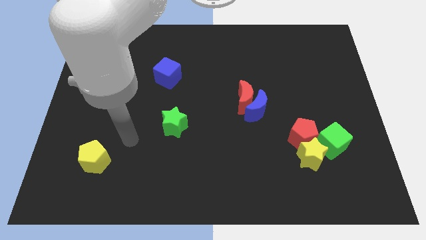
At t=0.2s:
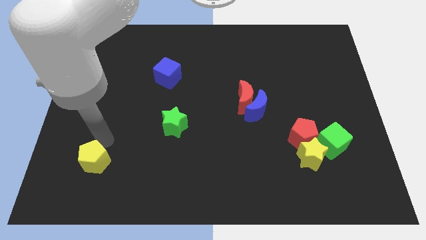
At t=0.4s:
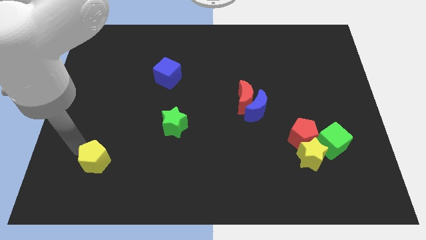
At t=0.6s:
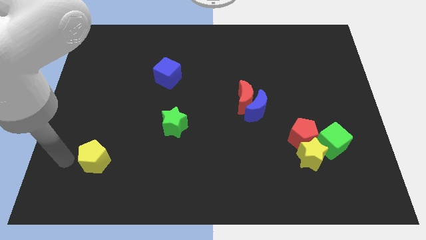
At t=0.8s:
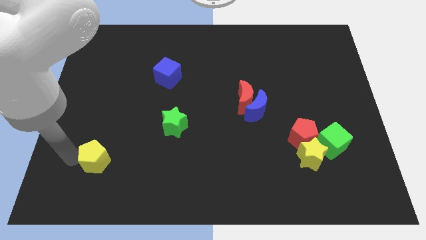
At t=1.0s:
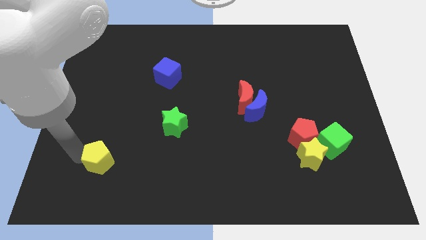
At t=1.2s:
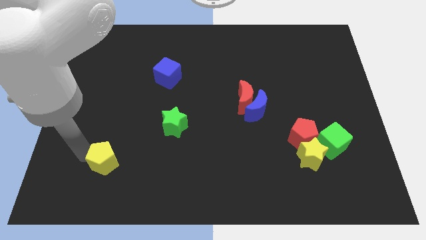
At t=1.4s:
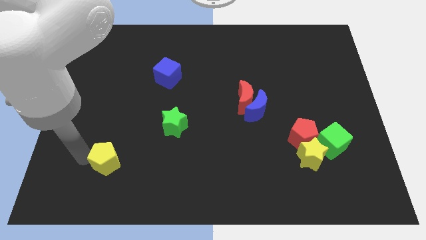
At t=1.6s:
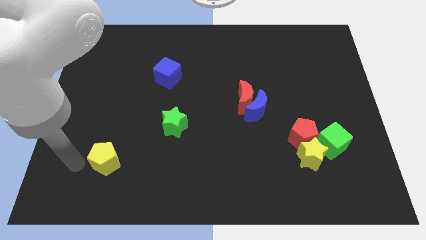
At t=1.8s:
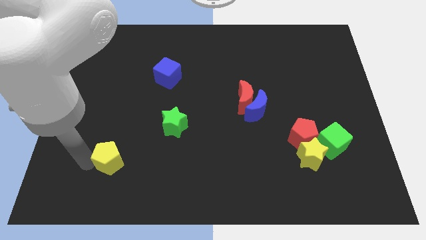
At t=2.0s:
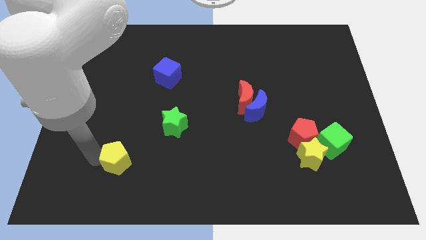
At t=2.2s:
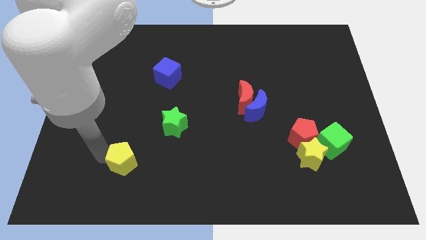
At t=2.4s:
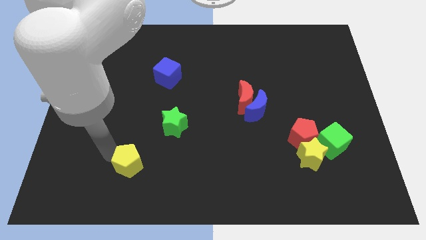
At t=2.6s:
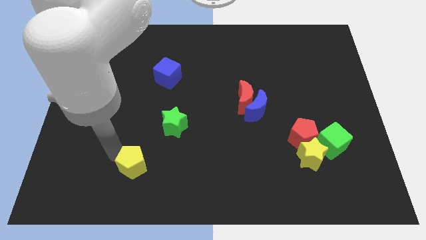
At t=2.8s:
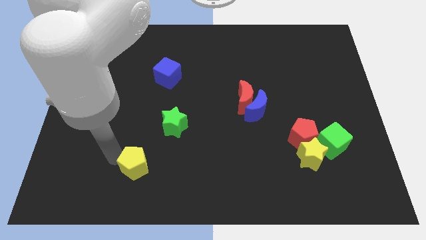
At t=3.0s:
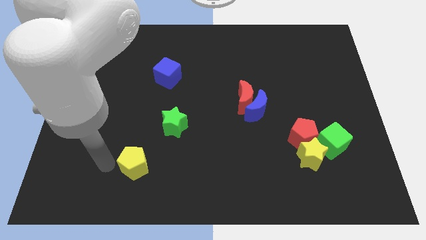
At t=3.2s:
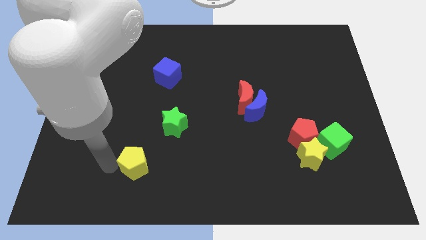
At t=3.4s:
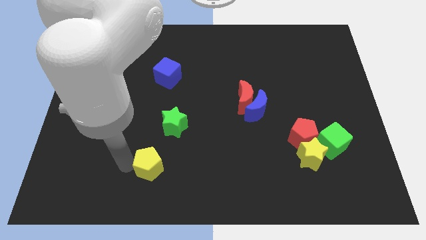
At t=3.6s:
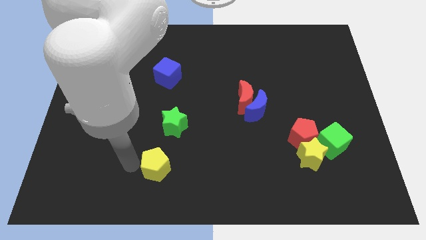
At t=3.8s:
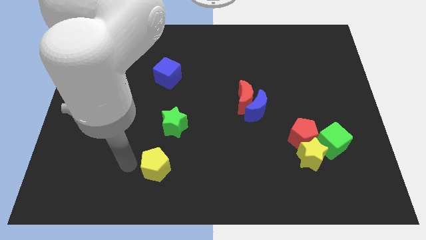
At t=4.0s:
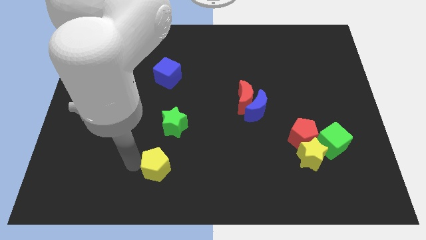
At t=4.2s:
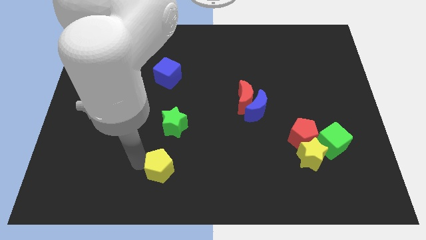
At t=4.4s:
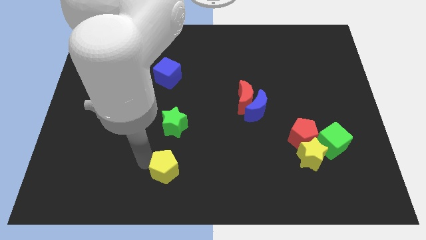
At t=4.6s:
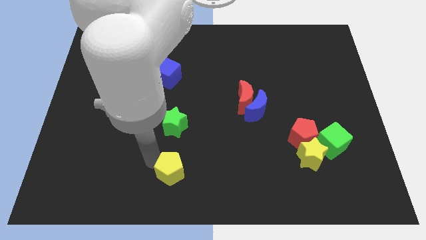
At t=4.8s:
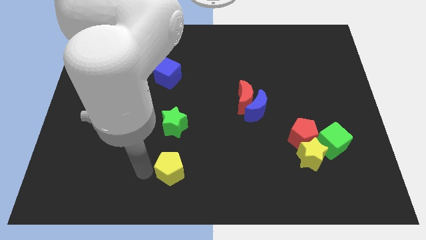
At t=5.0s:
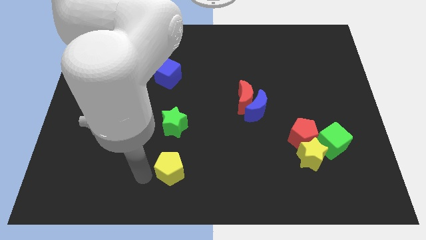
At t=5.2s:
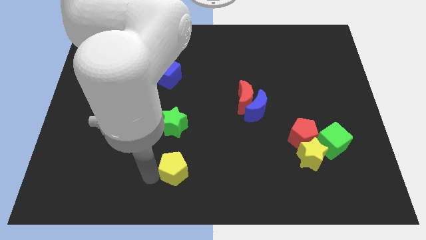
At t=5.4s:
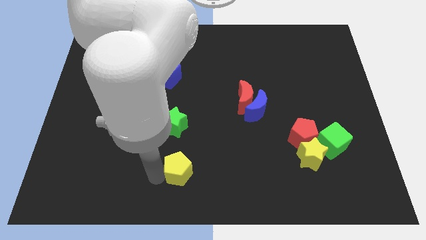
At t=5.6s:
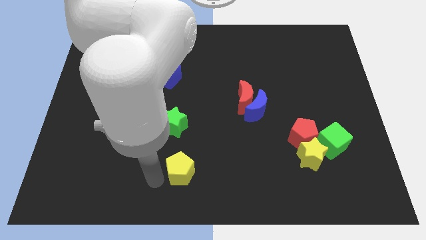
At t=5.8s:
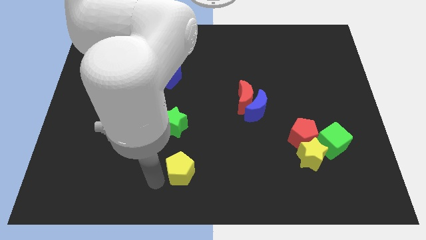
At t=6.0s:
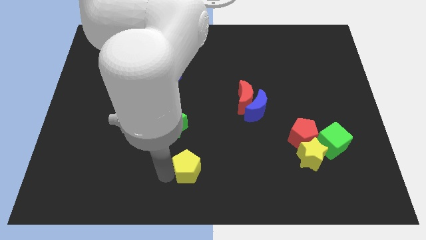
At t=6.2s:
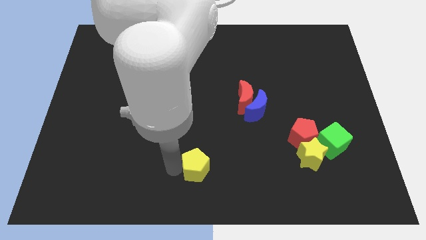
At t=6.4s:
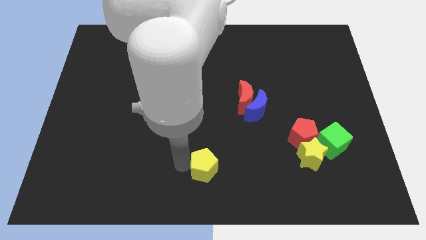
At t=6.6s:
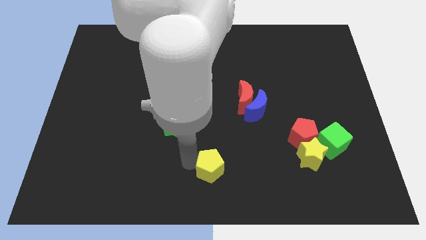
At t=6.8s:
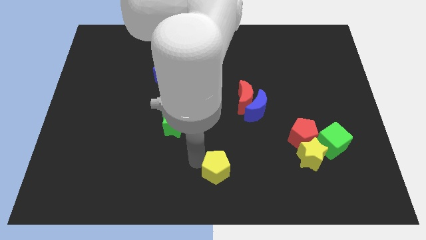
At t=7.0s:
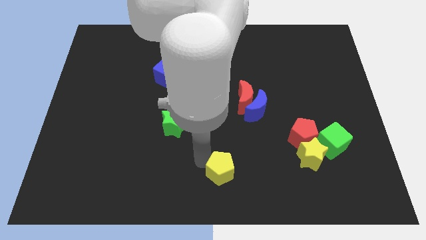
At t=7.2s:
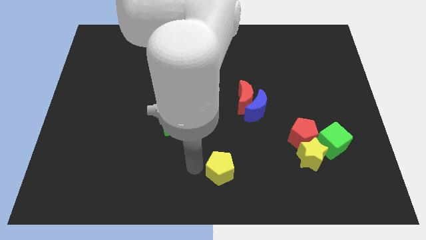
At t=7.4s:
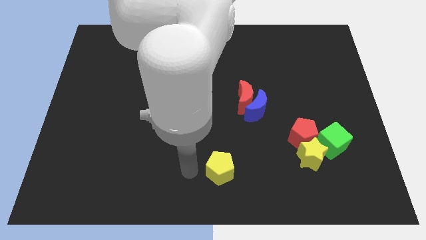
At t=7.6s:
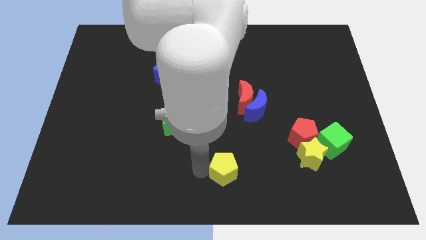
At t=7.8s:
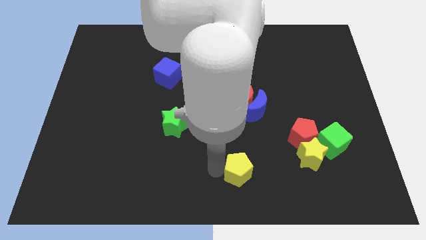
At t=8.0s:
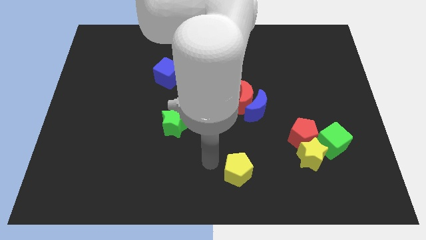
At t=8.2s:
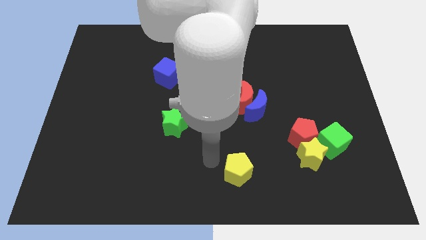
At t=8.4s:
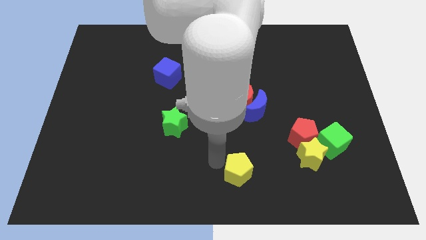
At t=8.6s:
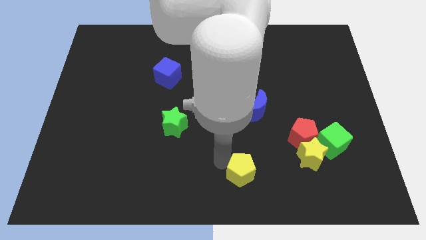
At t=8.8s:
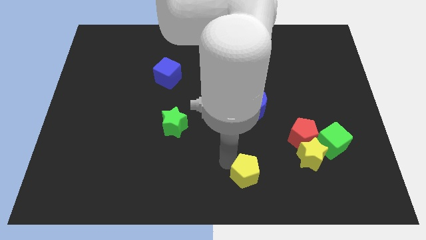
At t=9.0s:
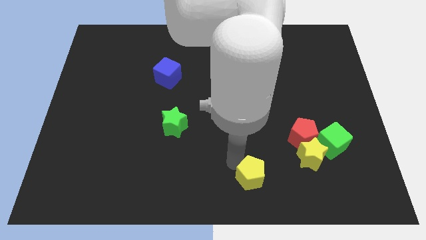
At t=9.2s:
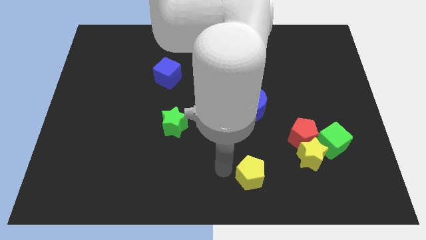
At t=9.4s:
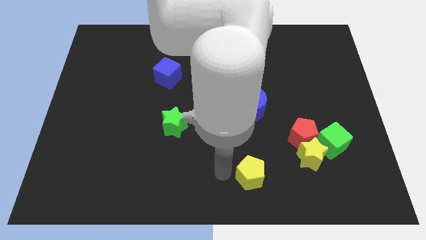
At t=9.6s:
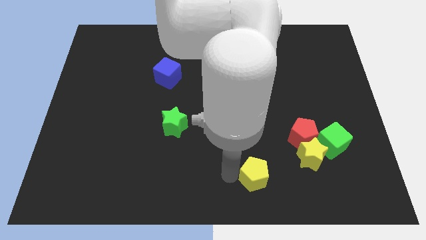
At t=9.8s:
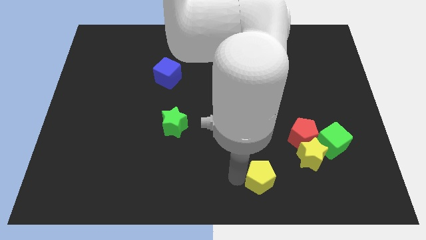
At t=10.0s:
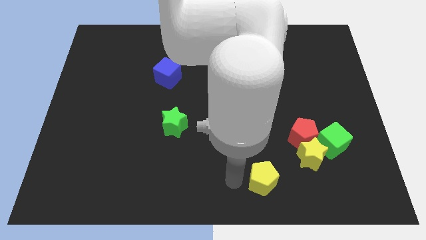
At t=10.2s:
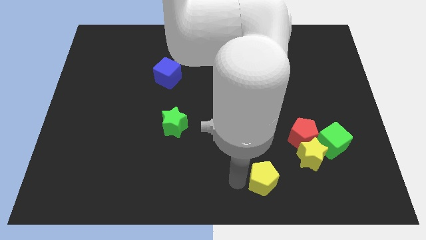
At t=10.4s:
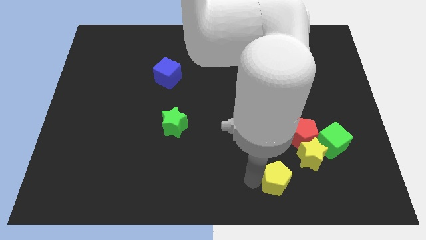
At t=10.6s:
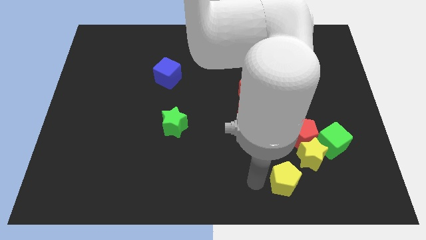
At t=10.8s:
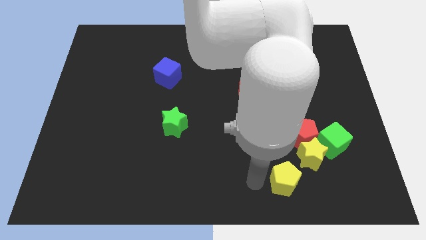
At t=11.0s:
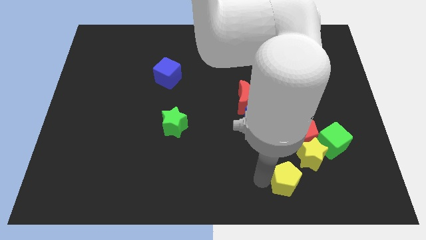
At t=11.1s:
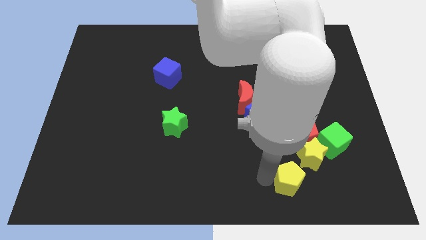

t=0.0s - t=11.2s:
move the yellow pentagon to the bottom side of the red pentagon
